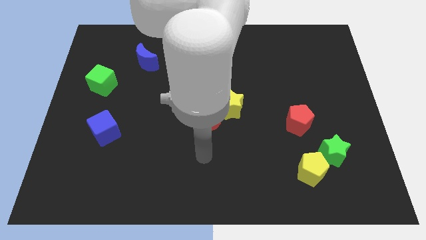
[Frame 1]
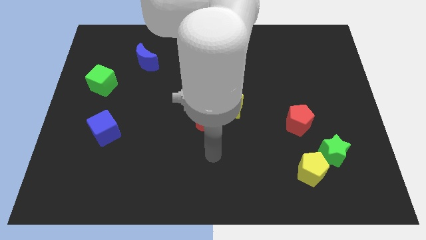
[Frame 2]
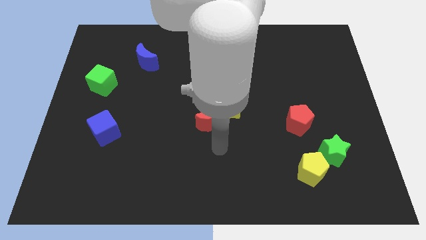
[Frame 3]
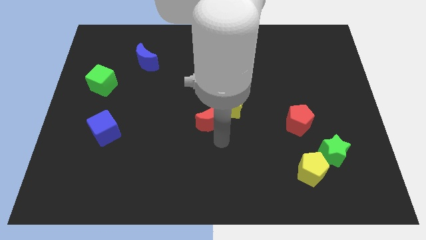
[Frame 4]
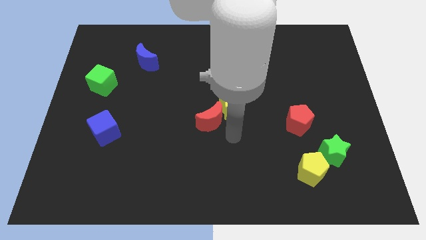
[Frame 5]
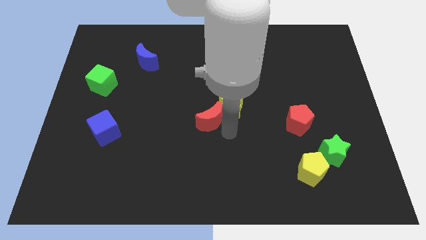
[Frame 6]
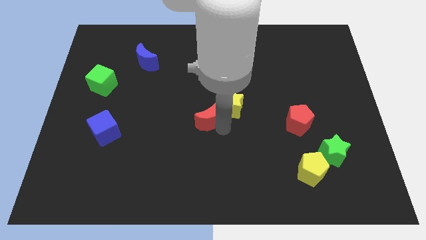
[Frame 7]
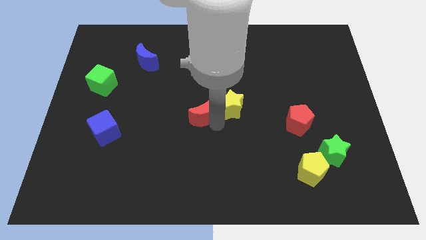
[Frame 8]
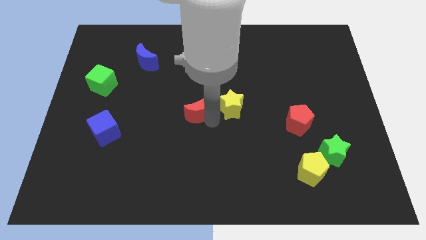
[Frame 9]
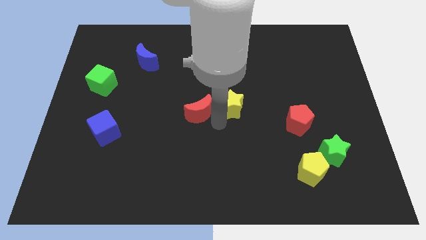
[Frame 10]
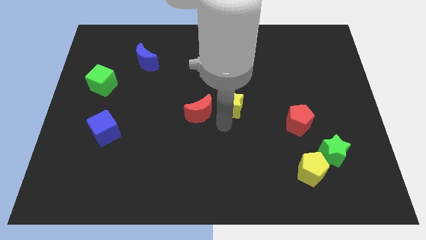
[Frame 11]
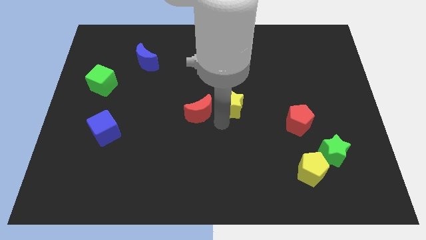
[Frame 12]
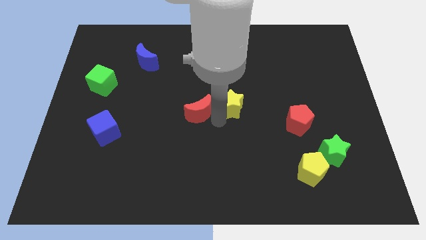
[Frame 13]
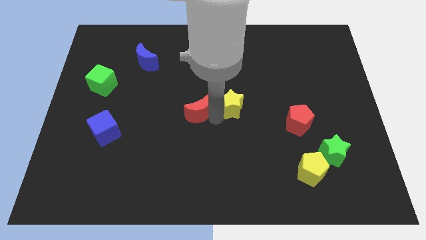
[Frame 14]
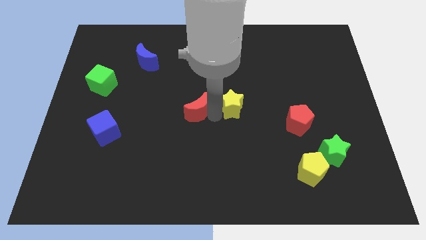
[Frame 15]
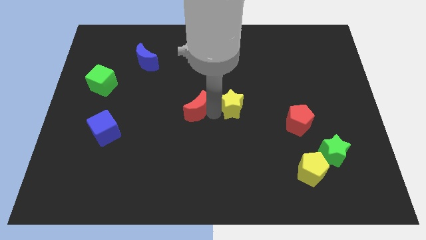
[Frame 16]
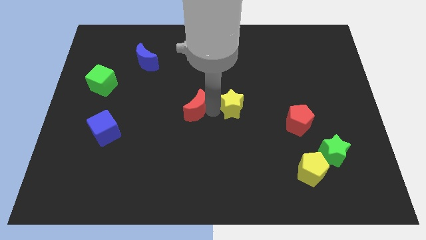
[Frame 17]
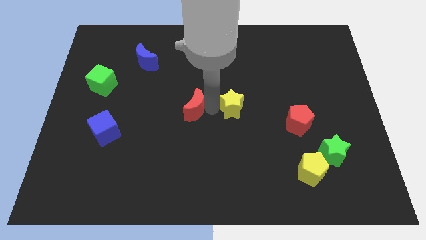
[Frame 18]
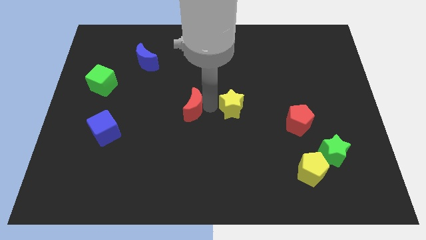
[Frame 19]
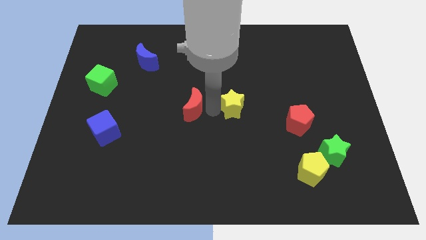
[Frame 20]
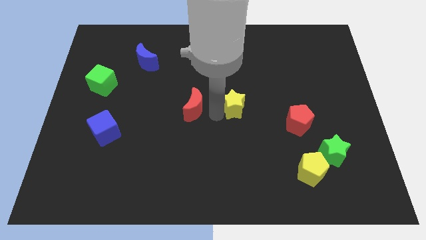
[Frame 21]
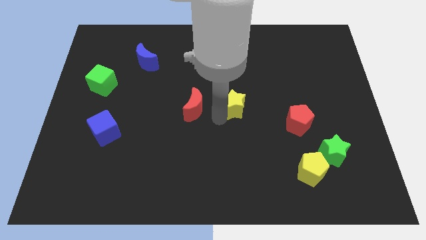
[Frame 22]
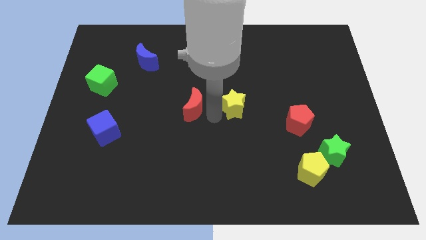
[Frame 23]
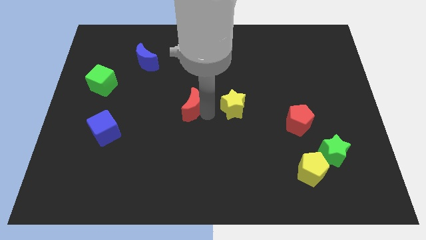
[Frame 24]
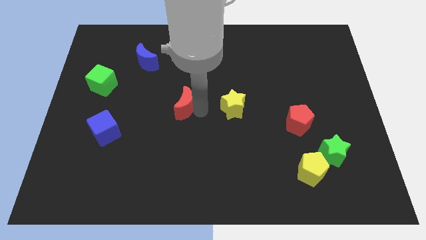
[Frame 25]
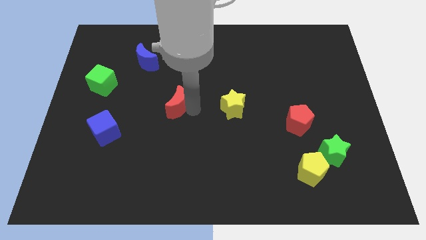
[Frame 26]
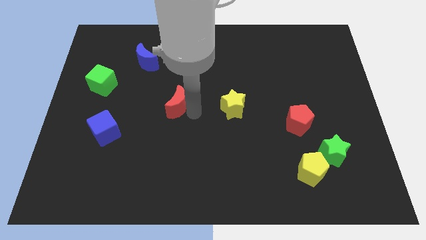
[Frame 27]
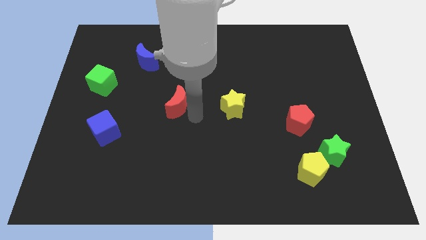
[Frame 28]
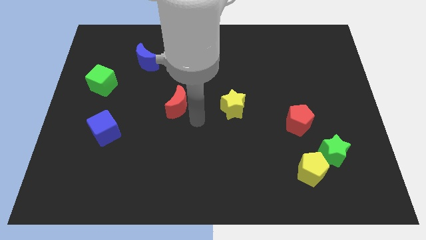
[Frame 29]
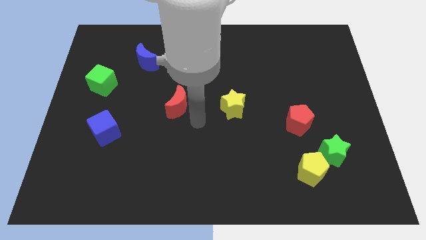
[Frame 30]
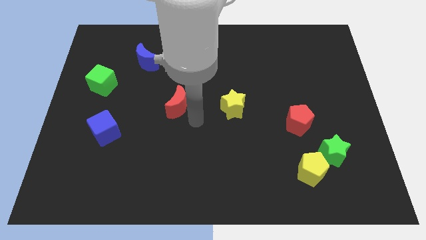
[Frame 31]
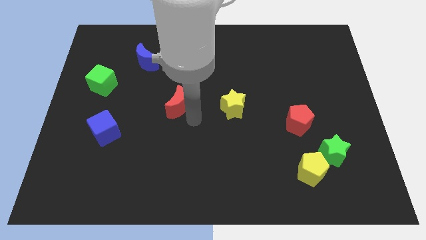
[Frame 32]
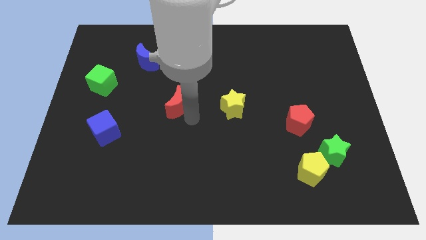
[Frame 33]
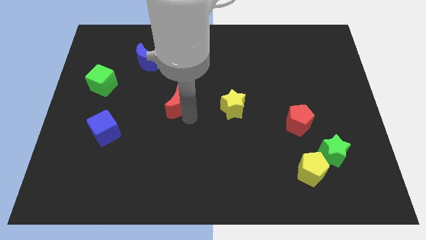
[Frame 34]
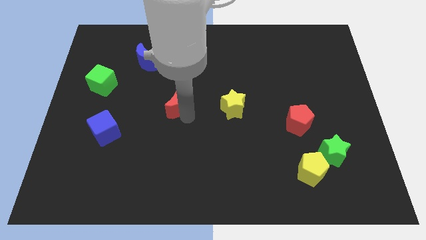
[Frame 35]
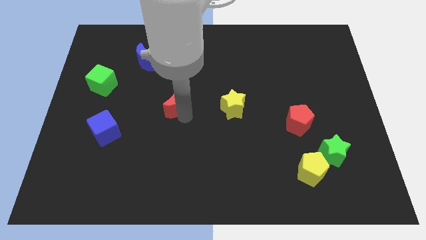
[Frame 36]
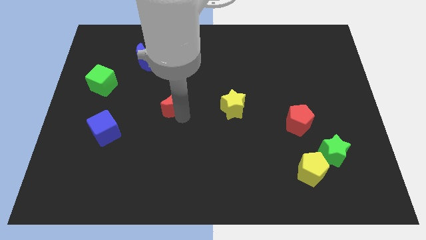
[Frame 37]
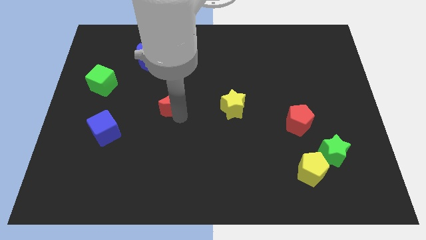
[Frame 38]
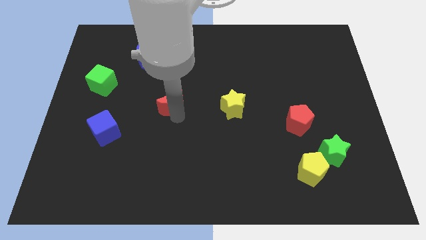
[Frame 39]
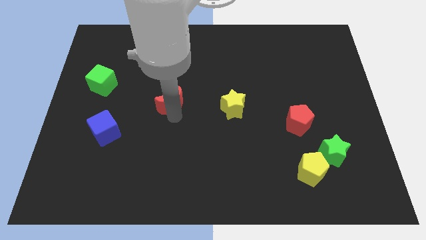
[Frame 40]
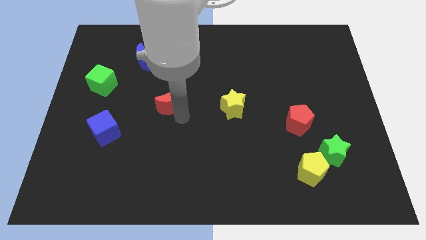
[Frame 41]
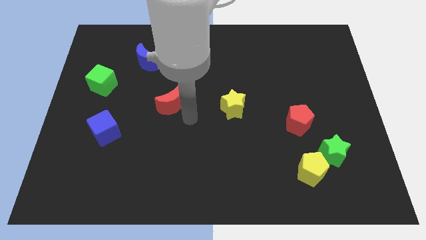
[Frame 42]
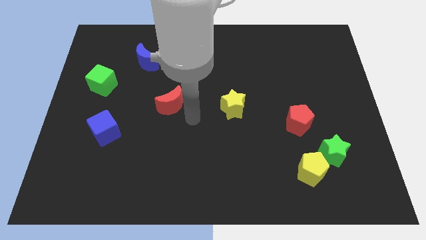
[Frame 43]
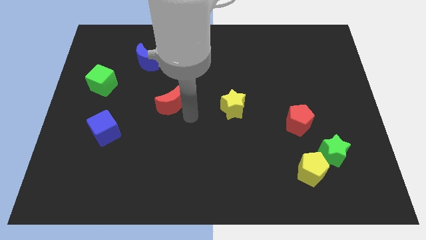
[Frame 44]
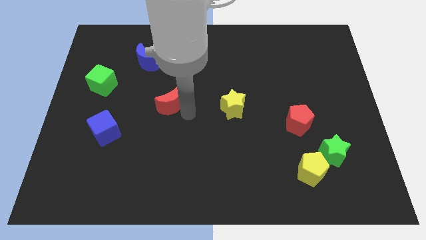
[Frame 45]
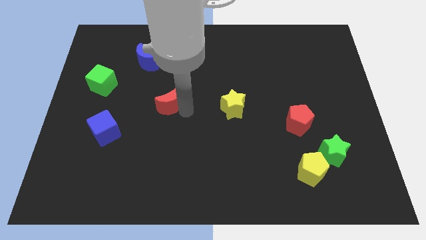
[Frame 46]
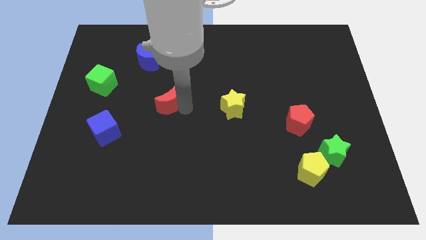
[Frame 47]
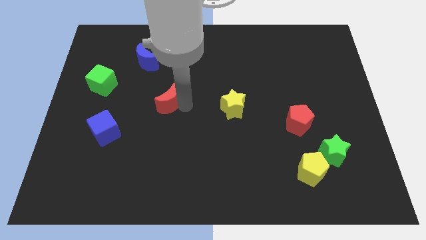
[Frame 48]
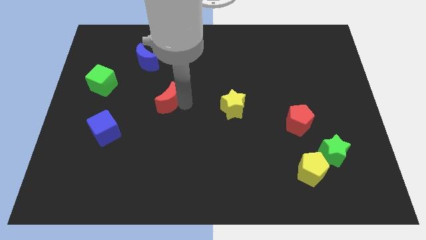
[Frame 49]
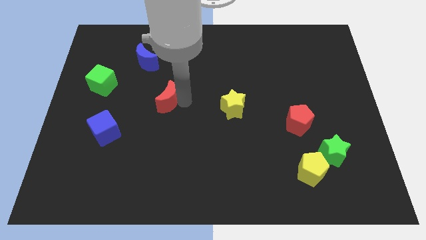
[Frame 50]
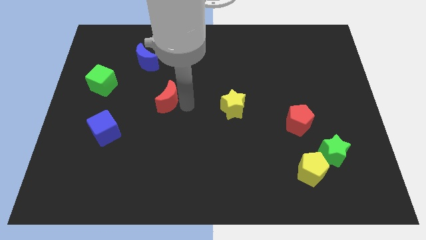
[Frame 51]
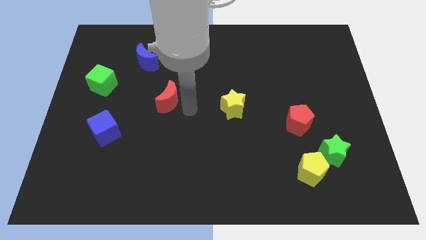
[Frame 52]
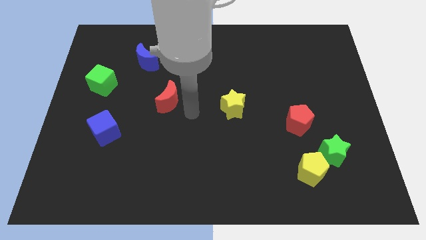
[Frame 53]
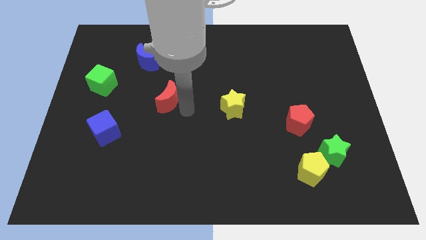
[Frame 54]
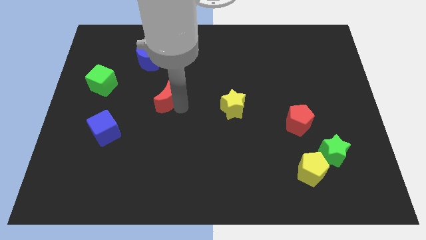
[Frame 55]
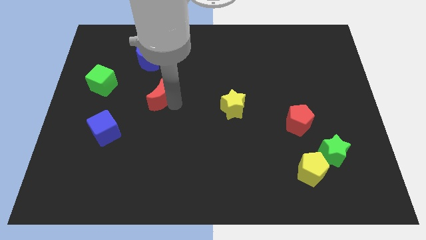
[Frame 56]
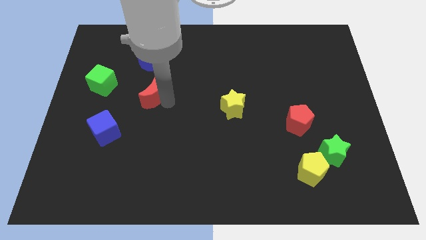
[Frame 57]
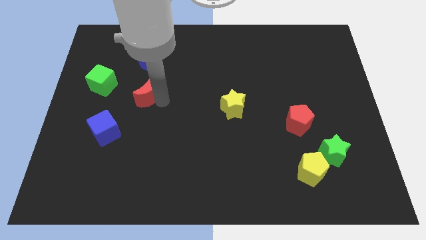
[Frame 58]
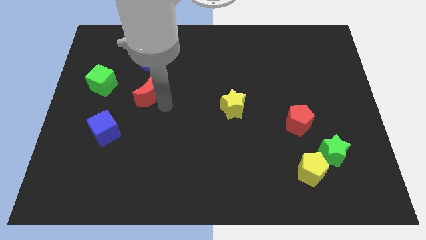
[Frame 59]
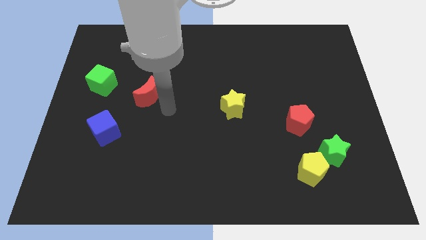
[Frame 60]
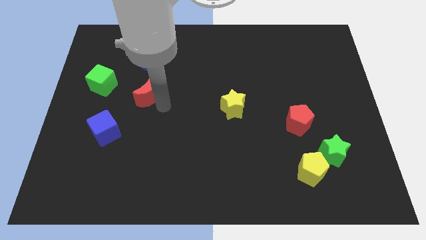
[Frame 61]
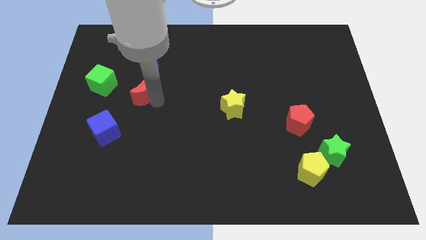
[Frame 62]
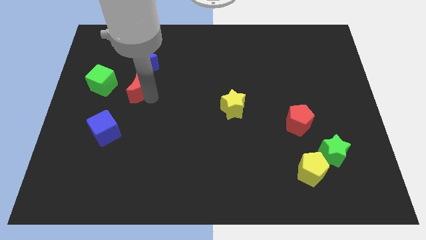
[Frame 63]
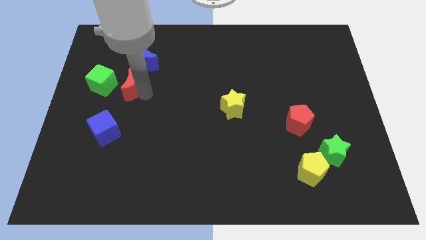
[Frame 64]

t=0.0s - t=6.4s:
push the red moon diagonally down and to the left of the blue moon
